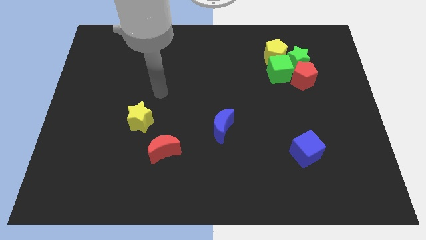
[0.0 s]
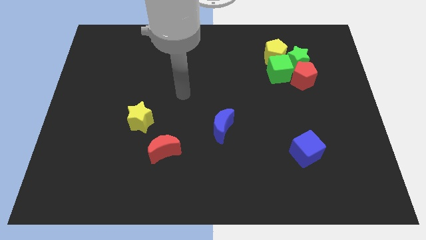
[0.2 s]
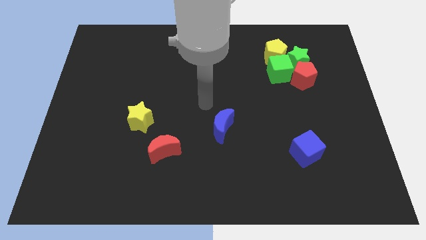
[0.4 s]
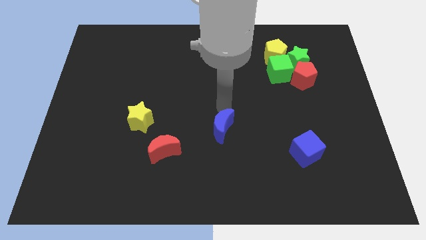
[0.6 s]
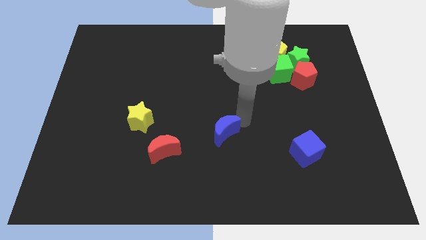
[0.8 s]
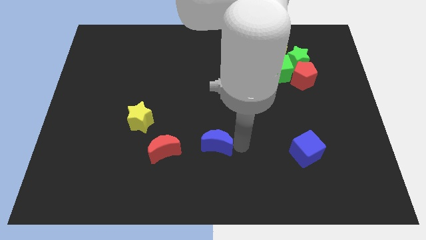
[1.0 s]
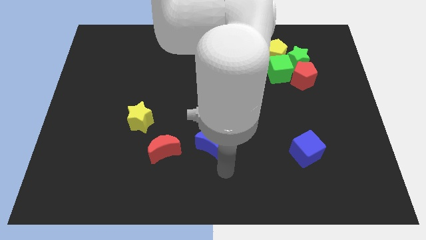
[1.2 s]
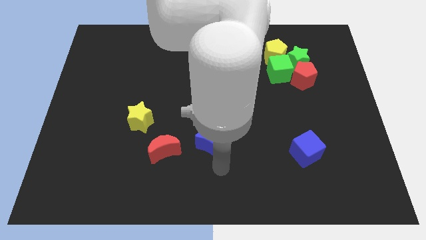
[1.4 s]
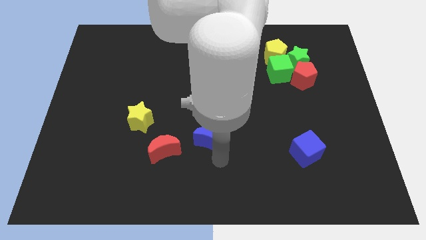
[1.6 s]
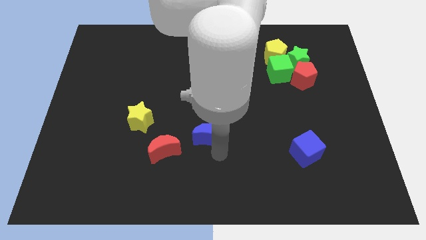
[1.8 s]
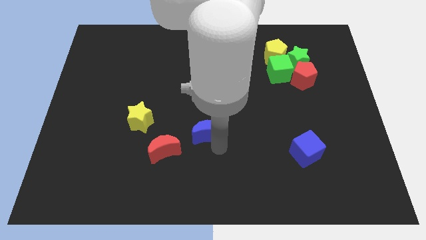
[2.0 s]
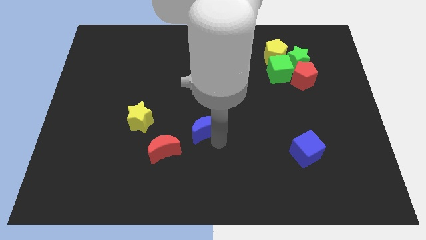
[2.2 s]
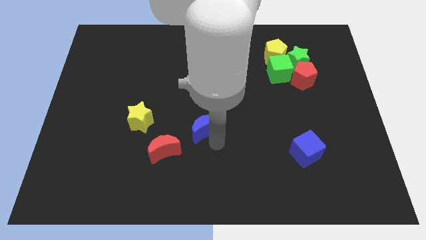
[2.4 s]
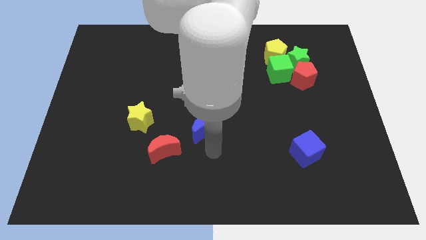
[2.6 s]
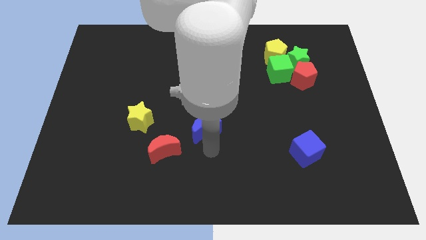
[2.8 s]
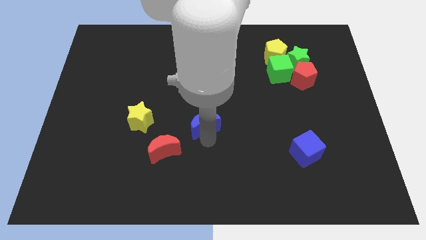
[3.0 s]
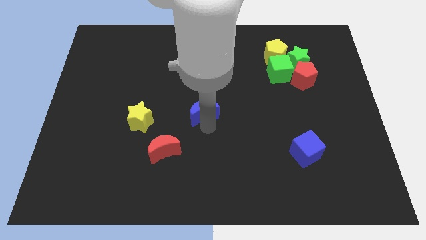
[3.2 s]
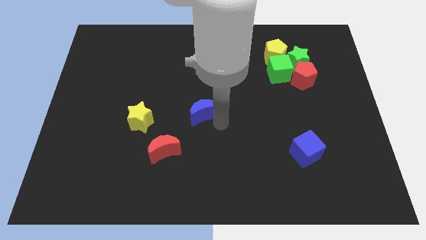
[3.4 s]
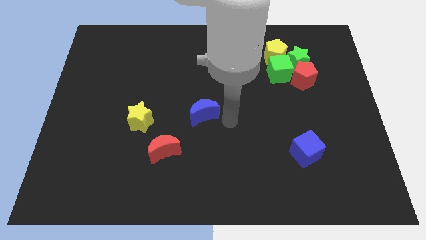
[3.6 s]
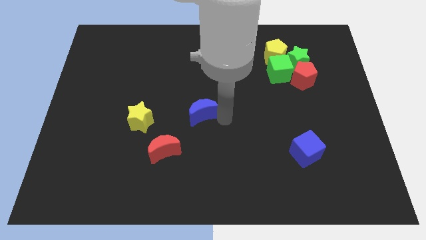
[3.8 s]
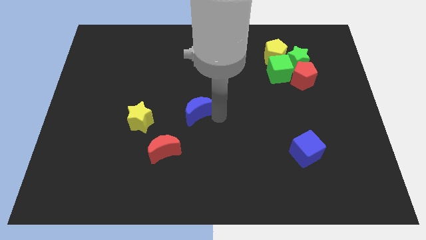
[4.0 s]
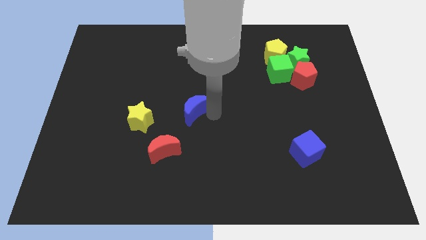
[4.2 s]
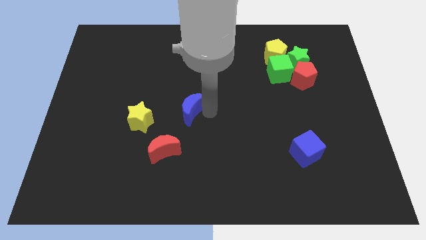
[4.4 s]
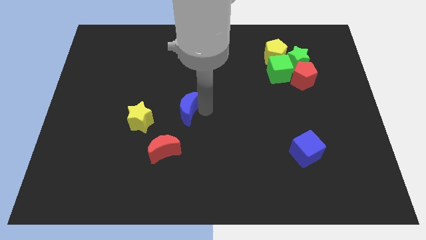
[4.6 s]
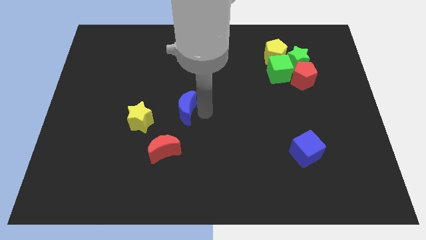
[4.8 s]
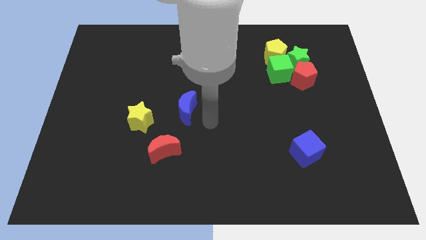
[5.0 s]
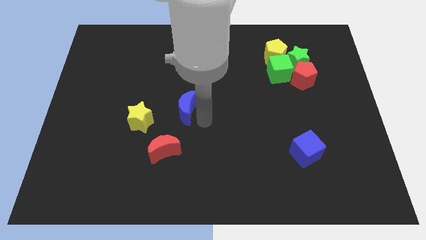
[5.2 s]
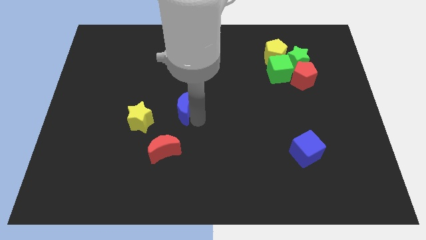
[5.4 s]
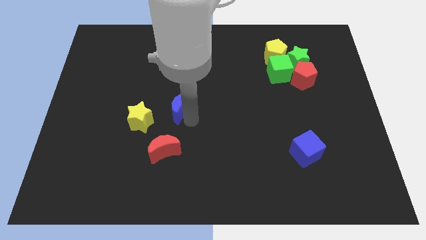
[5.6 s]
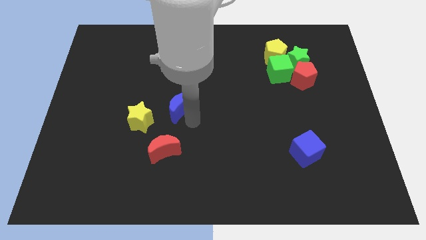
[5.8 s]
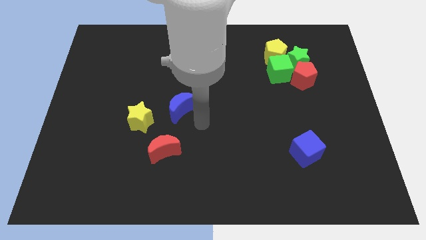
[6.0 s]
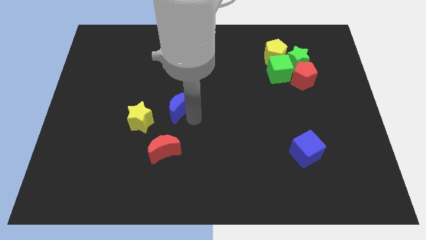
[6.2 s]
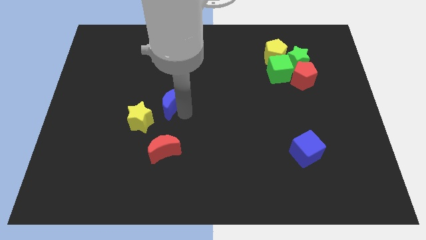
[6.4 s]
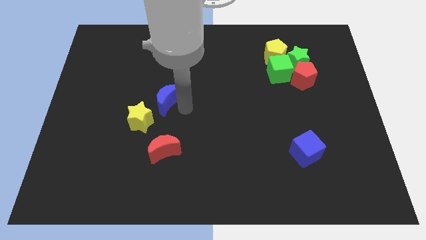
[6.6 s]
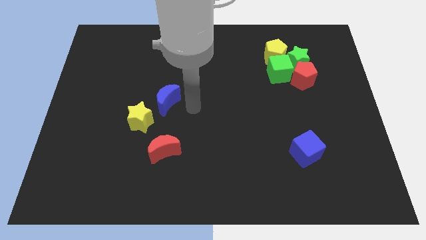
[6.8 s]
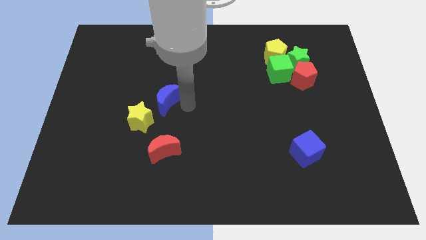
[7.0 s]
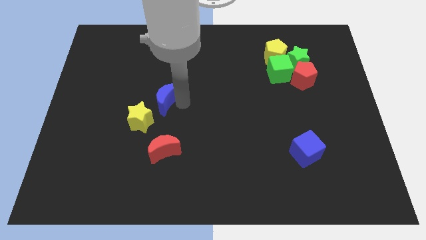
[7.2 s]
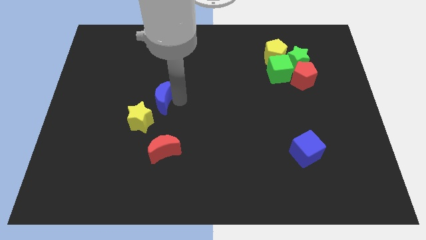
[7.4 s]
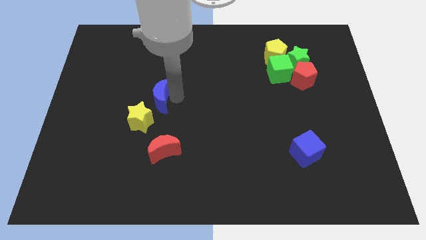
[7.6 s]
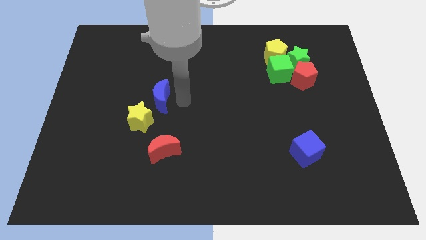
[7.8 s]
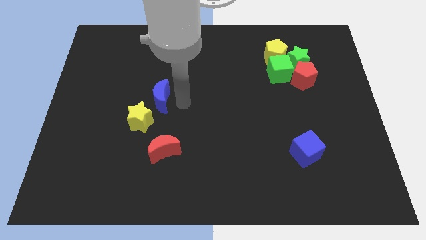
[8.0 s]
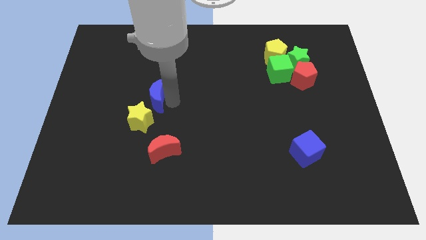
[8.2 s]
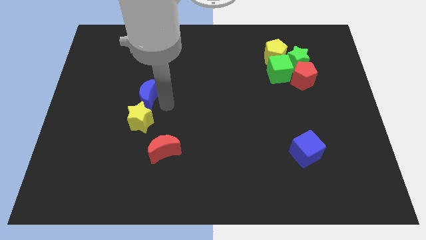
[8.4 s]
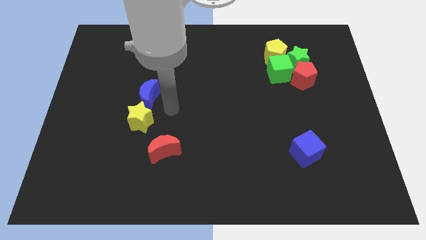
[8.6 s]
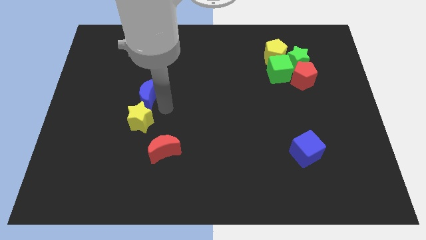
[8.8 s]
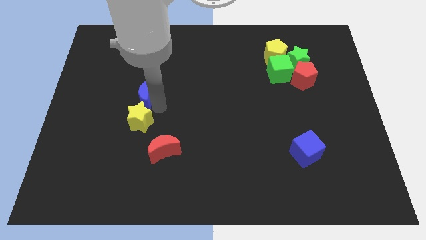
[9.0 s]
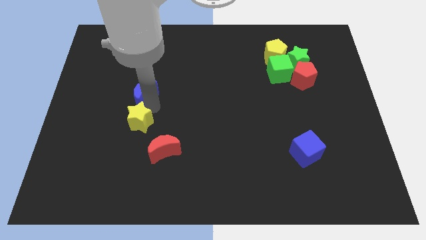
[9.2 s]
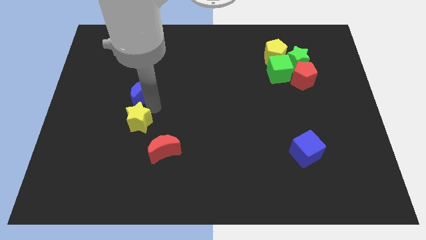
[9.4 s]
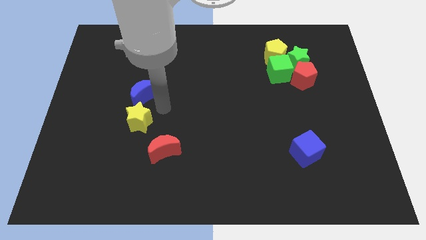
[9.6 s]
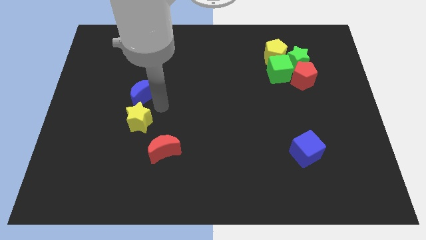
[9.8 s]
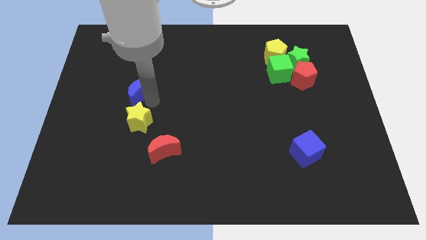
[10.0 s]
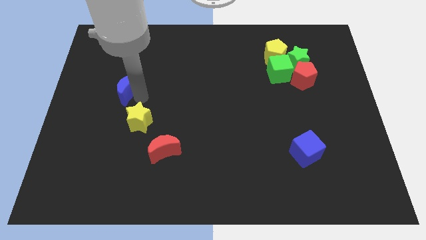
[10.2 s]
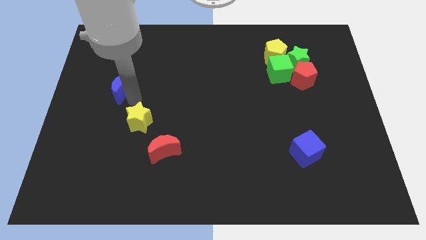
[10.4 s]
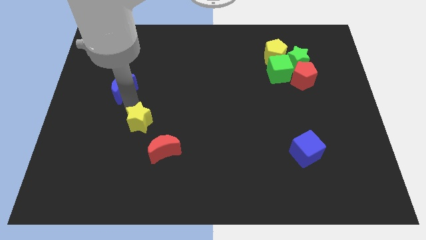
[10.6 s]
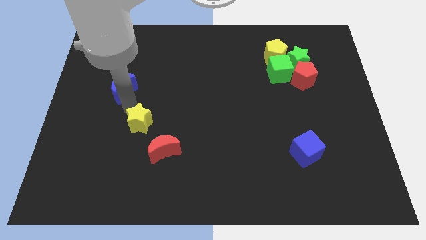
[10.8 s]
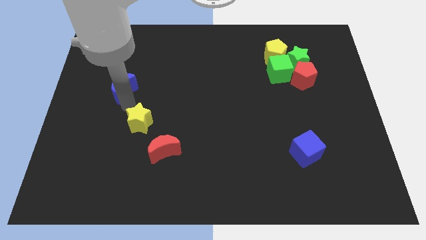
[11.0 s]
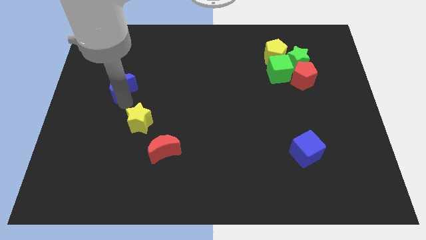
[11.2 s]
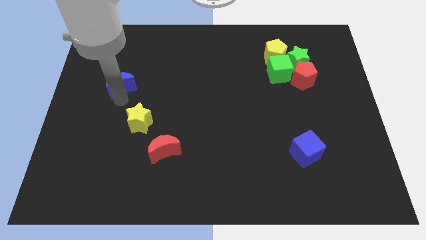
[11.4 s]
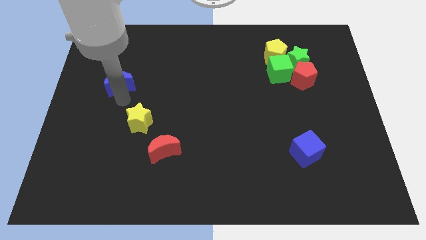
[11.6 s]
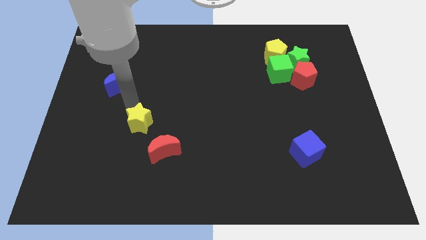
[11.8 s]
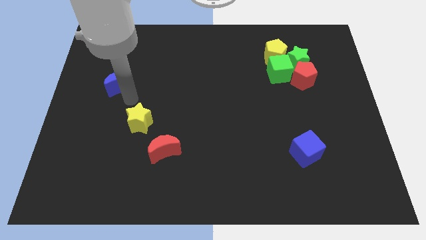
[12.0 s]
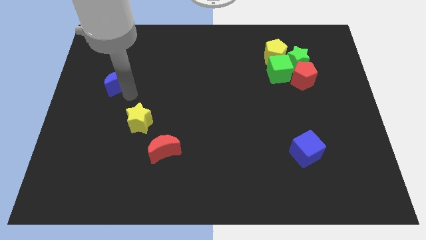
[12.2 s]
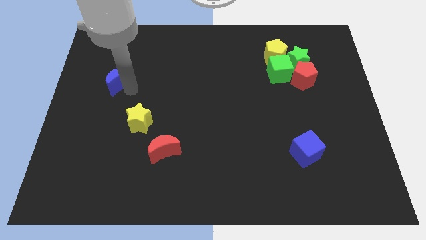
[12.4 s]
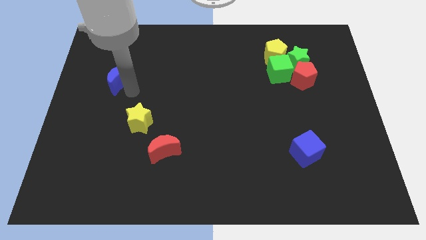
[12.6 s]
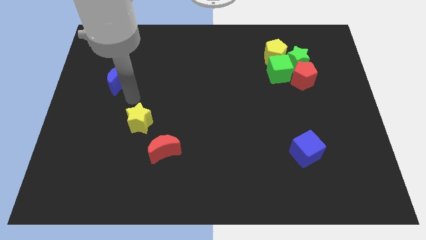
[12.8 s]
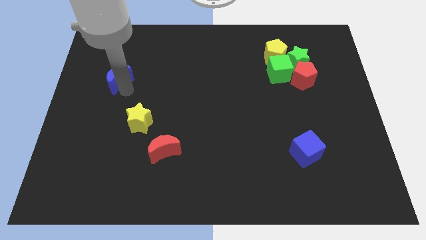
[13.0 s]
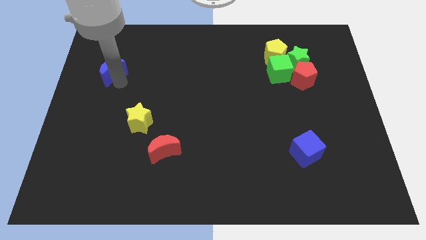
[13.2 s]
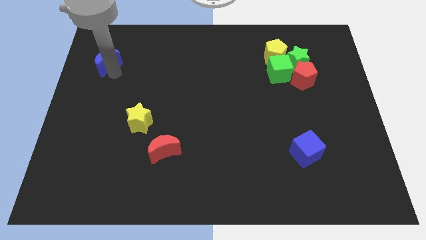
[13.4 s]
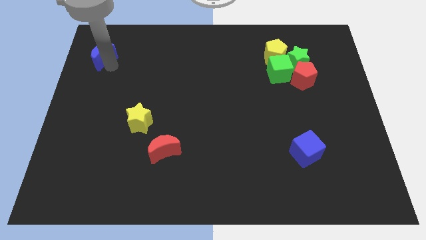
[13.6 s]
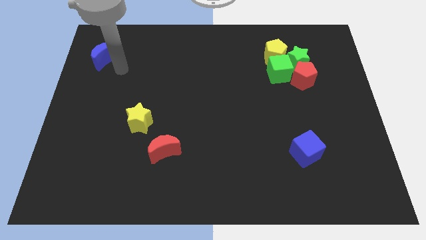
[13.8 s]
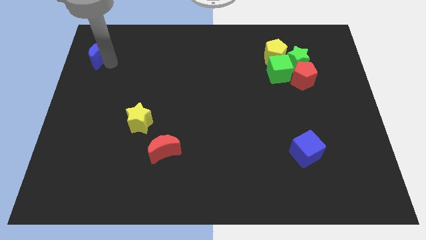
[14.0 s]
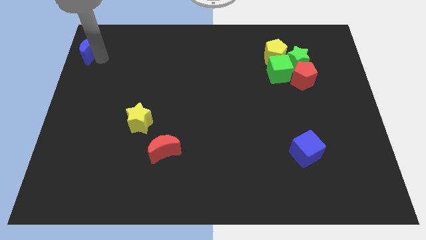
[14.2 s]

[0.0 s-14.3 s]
slide the blue moon to the top left
